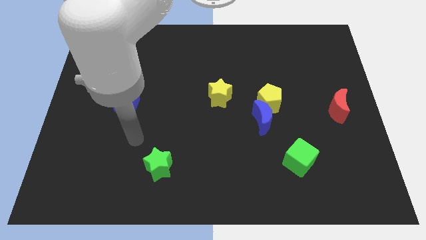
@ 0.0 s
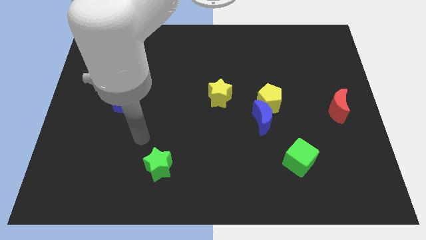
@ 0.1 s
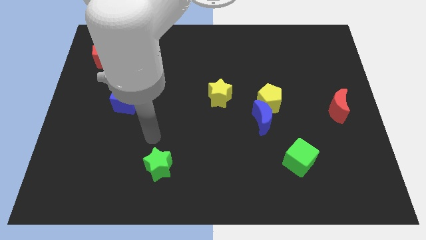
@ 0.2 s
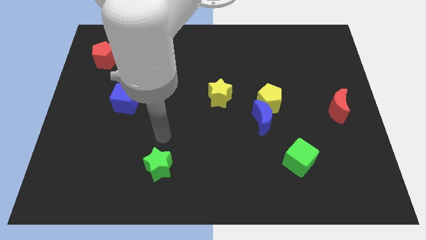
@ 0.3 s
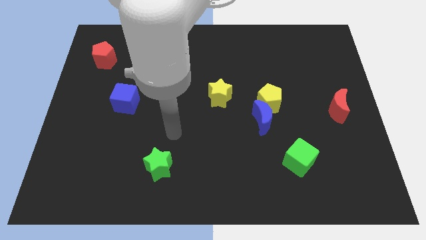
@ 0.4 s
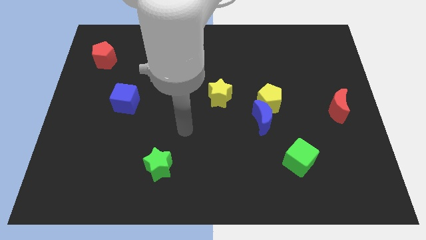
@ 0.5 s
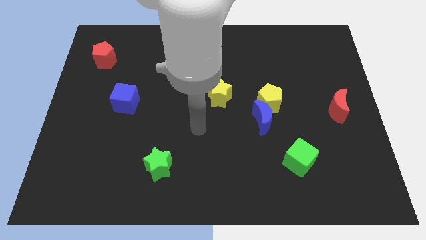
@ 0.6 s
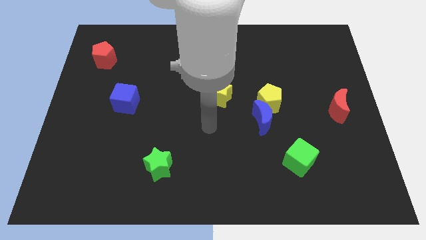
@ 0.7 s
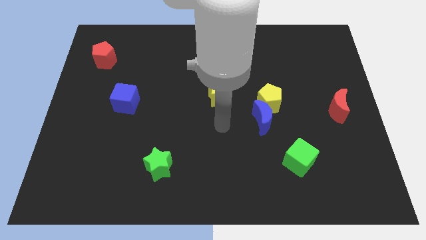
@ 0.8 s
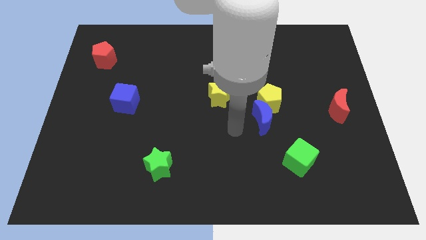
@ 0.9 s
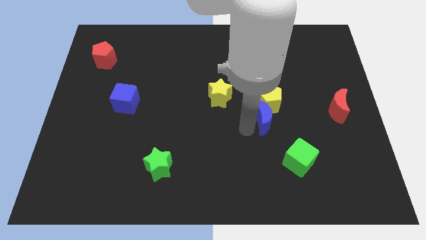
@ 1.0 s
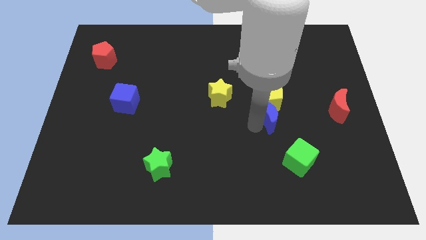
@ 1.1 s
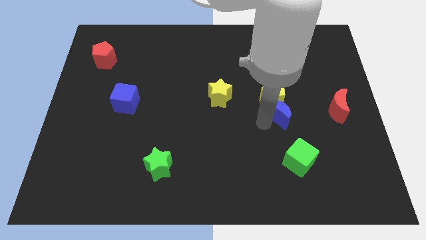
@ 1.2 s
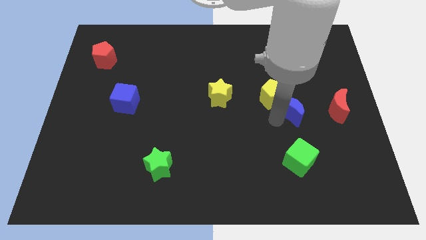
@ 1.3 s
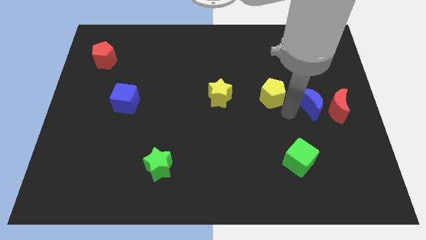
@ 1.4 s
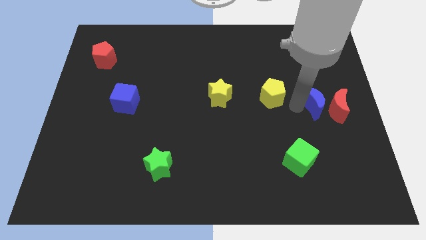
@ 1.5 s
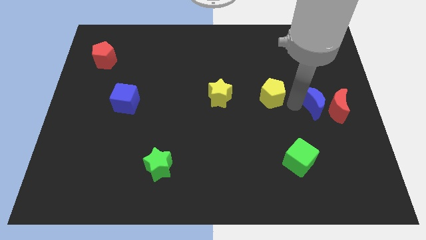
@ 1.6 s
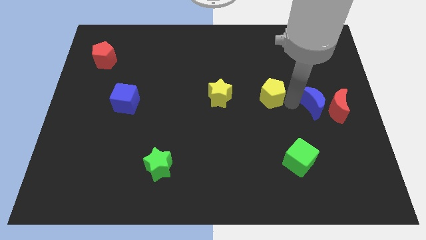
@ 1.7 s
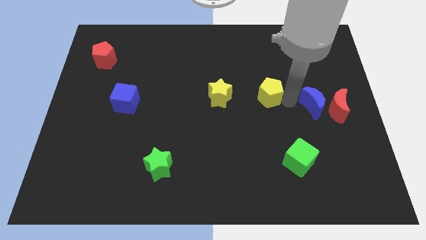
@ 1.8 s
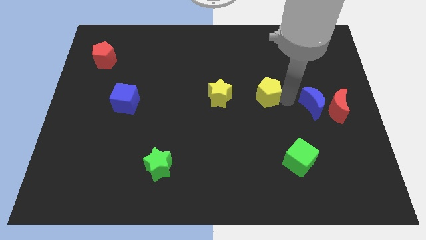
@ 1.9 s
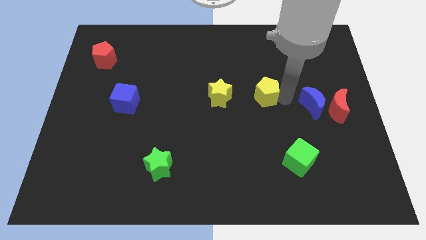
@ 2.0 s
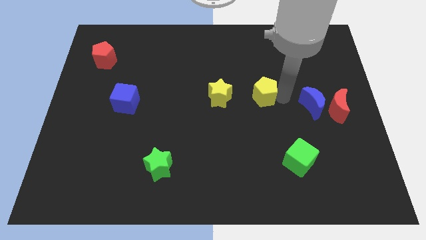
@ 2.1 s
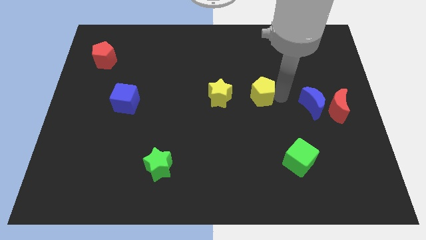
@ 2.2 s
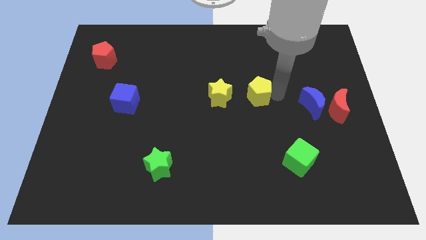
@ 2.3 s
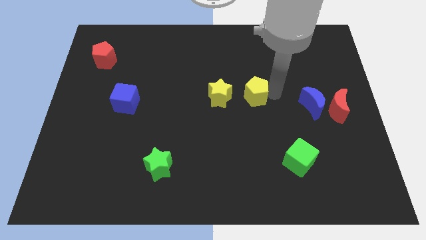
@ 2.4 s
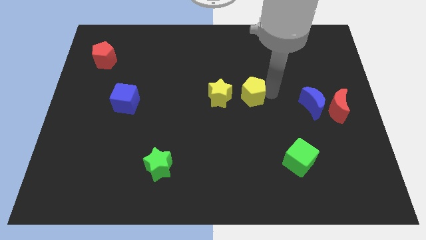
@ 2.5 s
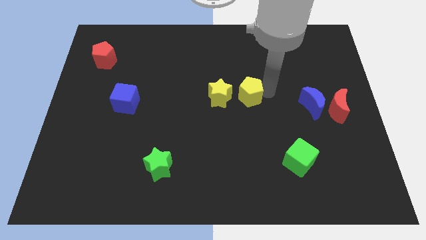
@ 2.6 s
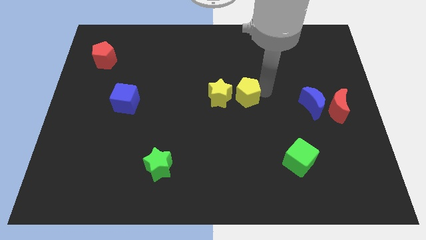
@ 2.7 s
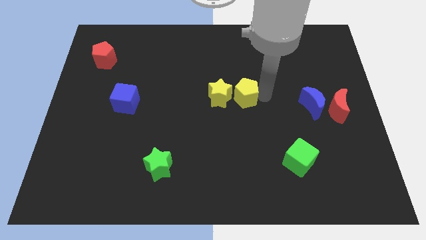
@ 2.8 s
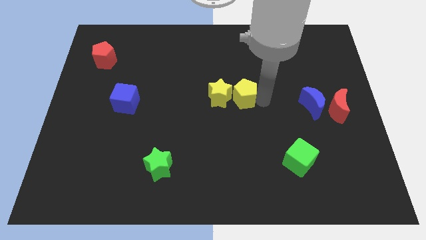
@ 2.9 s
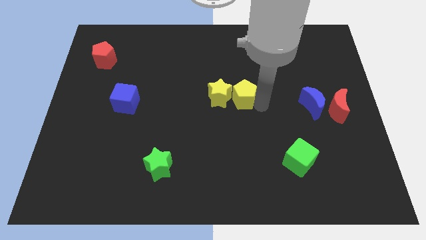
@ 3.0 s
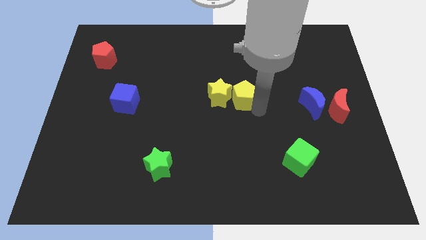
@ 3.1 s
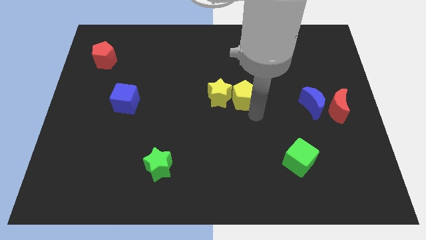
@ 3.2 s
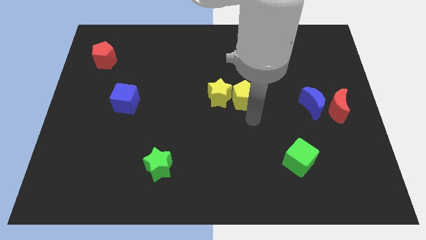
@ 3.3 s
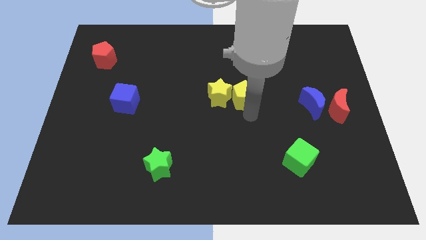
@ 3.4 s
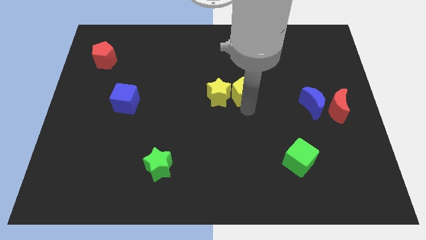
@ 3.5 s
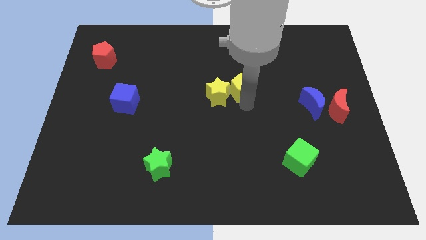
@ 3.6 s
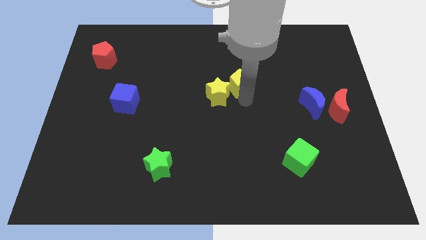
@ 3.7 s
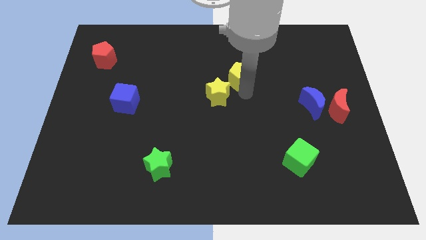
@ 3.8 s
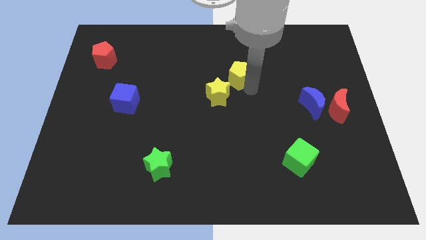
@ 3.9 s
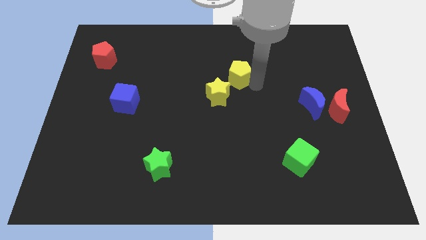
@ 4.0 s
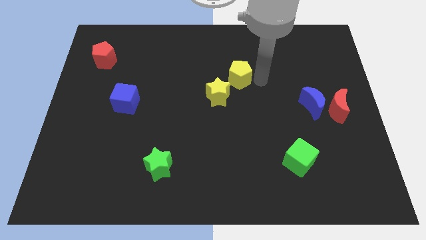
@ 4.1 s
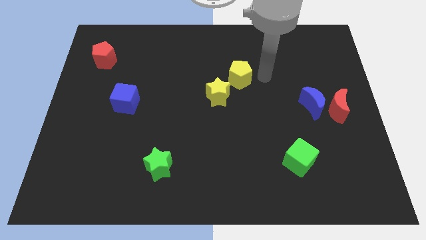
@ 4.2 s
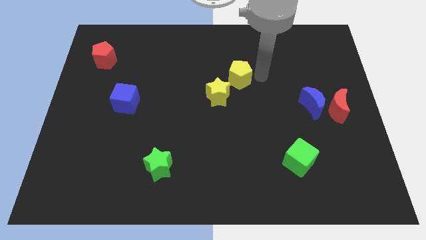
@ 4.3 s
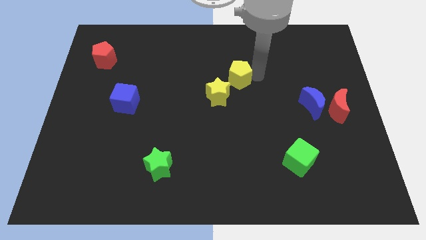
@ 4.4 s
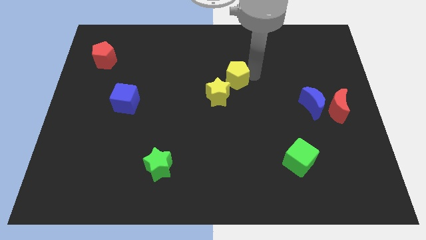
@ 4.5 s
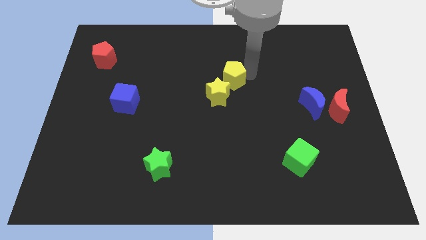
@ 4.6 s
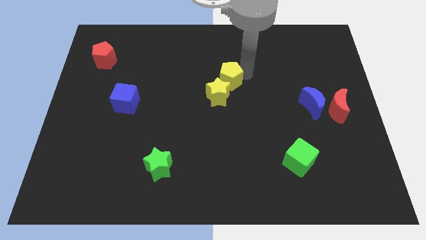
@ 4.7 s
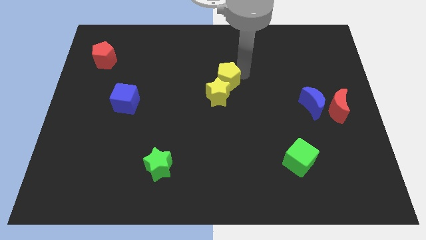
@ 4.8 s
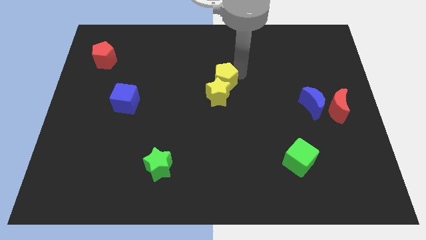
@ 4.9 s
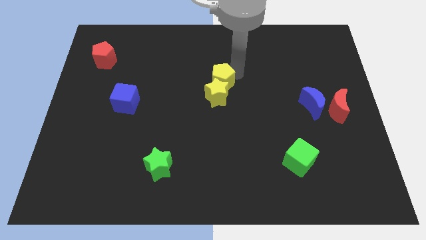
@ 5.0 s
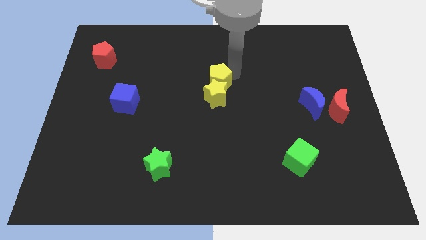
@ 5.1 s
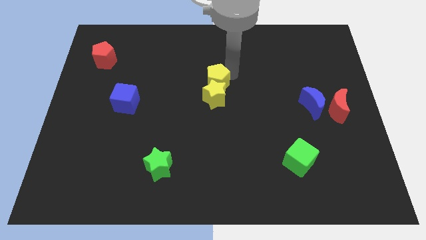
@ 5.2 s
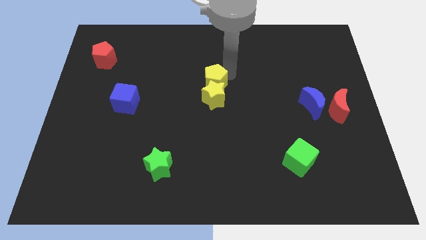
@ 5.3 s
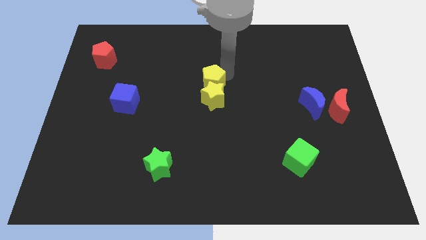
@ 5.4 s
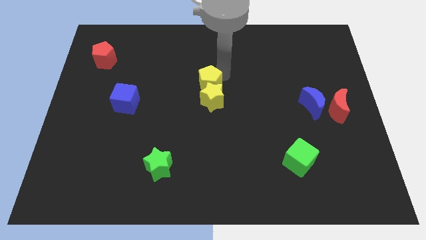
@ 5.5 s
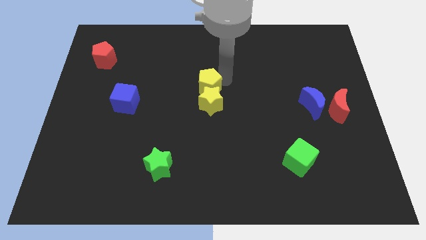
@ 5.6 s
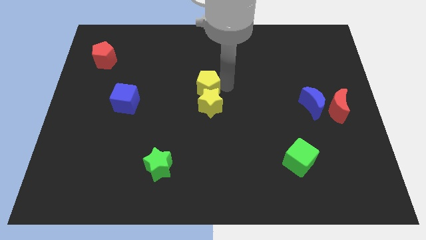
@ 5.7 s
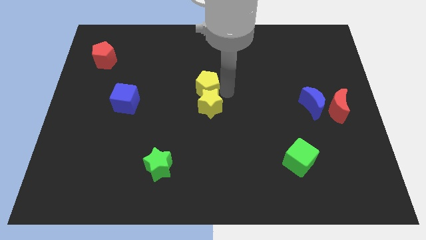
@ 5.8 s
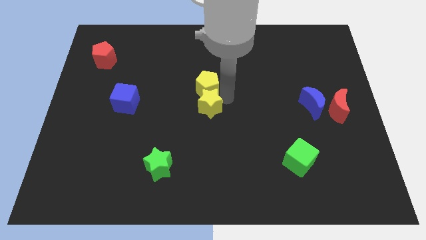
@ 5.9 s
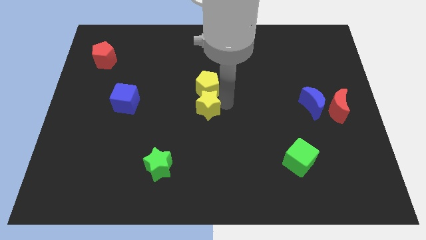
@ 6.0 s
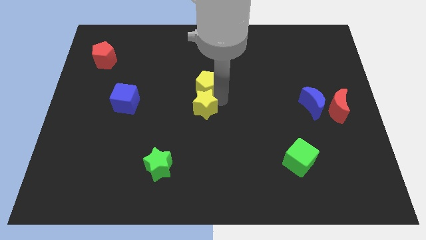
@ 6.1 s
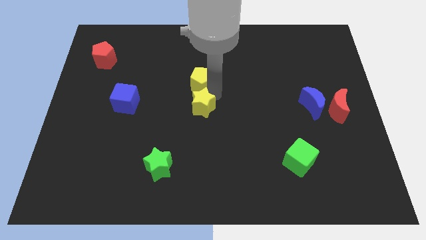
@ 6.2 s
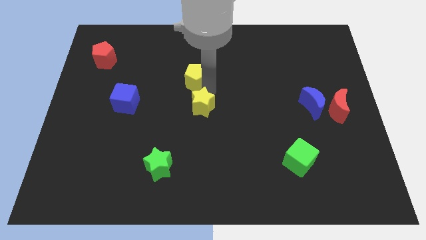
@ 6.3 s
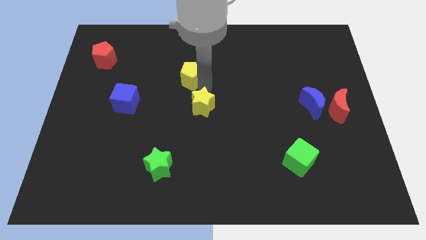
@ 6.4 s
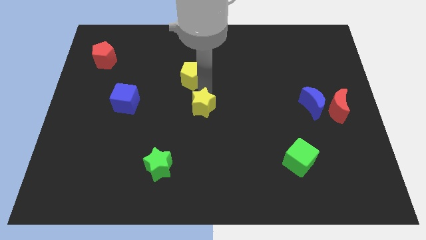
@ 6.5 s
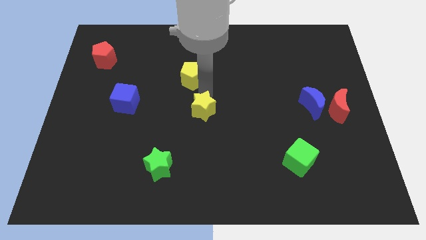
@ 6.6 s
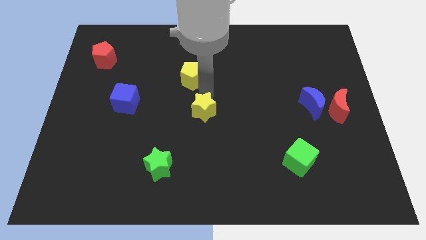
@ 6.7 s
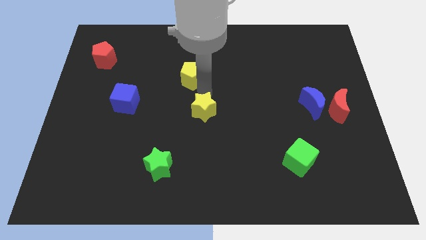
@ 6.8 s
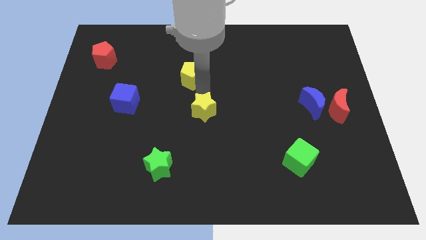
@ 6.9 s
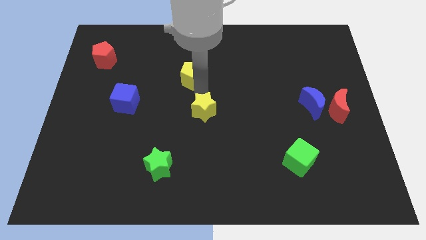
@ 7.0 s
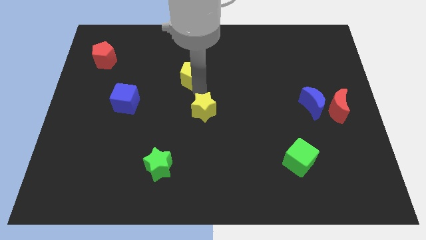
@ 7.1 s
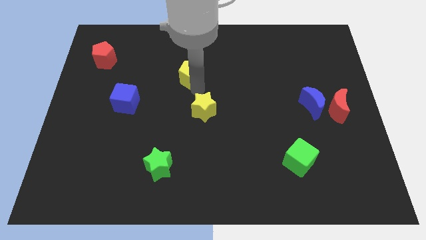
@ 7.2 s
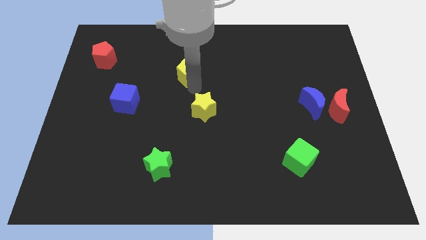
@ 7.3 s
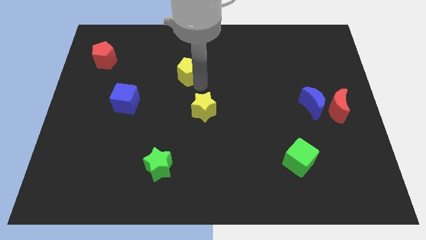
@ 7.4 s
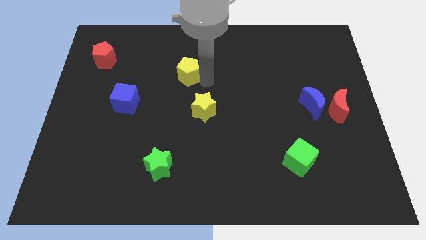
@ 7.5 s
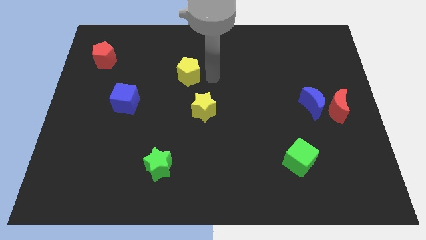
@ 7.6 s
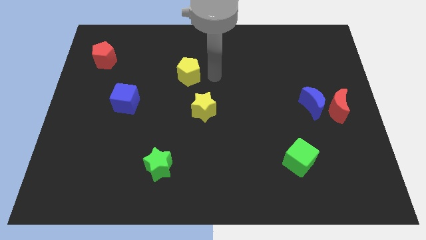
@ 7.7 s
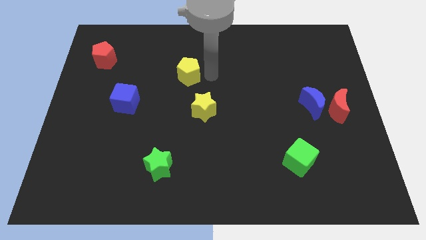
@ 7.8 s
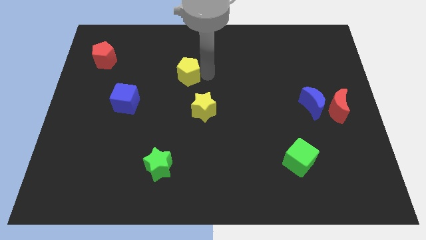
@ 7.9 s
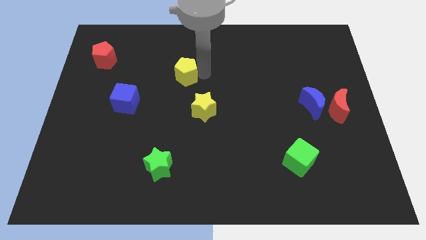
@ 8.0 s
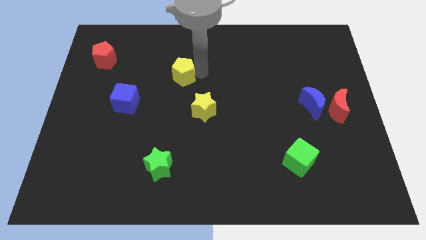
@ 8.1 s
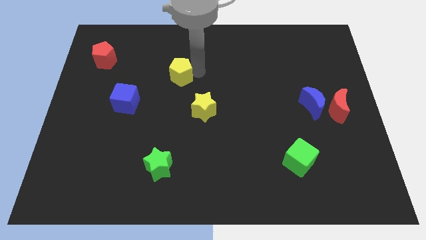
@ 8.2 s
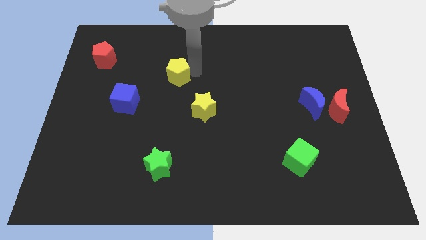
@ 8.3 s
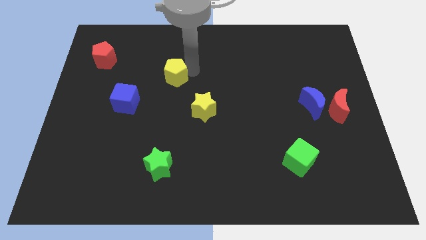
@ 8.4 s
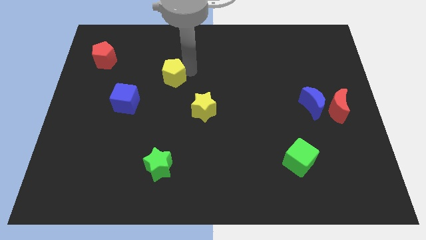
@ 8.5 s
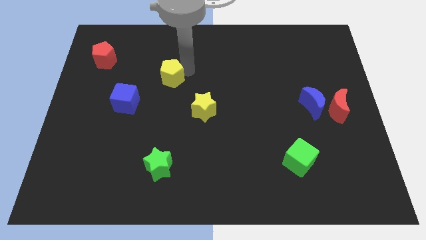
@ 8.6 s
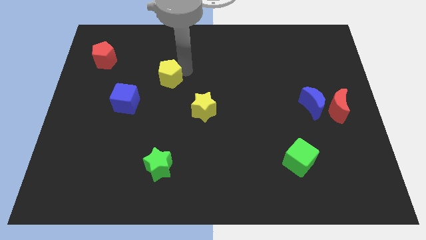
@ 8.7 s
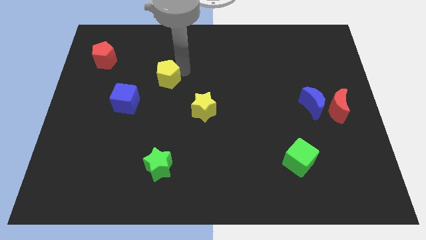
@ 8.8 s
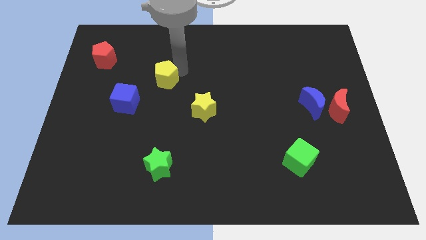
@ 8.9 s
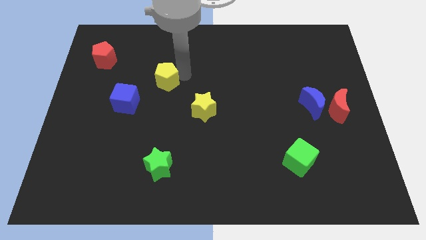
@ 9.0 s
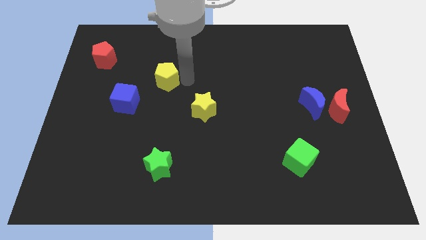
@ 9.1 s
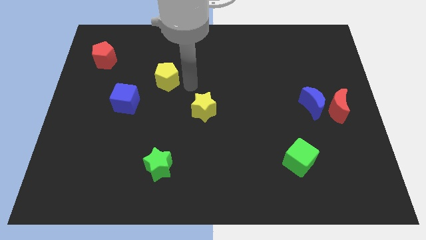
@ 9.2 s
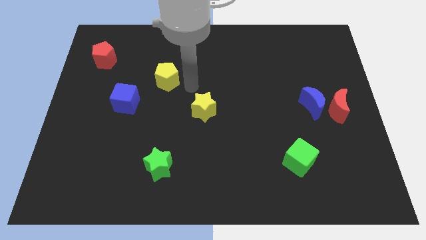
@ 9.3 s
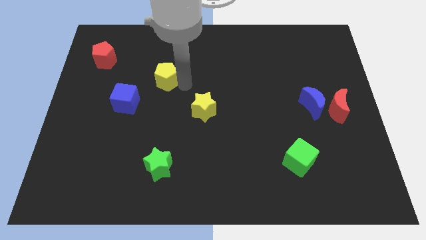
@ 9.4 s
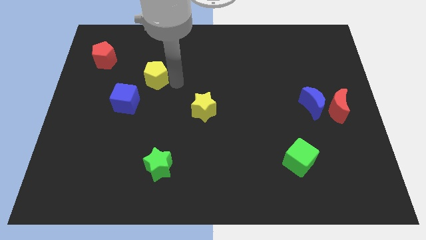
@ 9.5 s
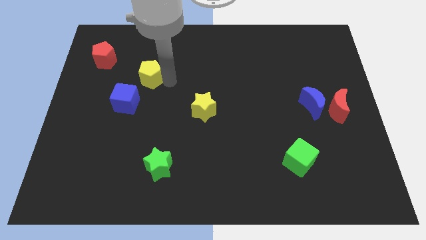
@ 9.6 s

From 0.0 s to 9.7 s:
put the yellow pentagon above the blue cube
